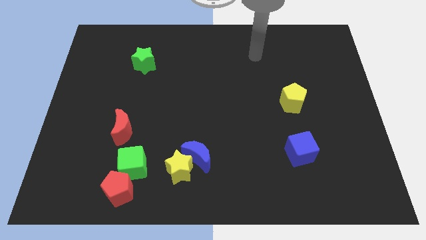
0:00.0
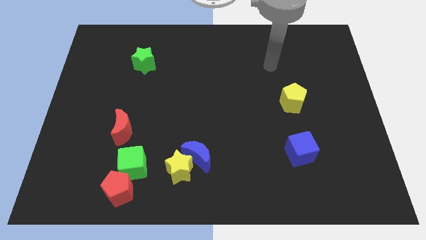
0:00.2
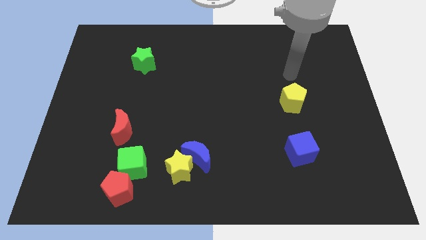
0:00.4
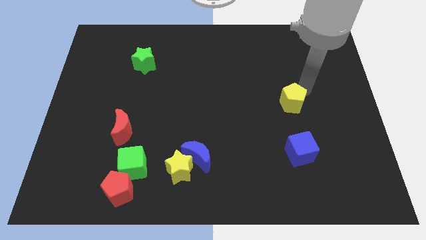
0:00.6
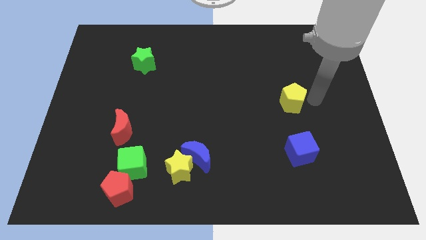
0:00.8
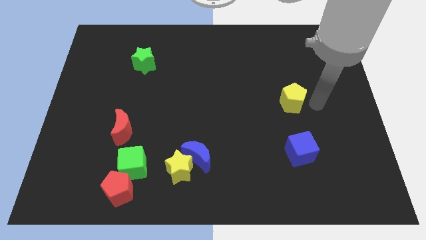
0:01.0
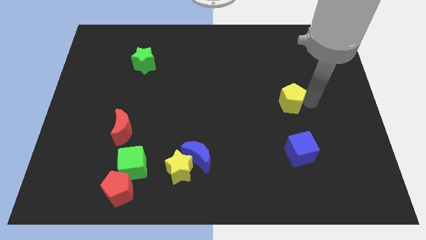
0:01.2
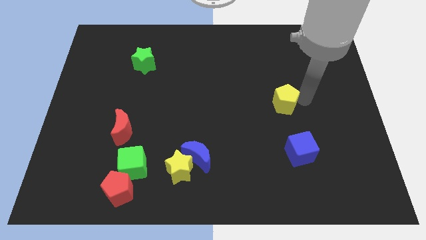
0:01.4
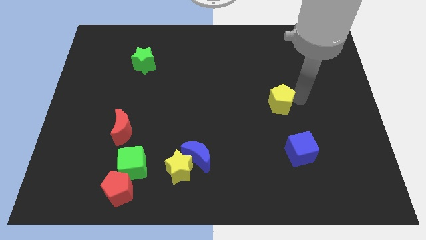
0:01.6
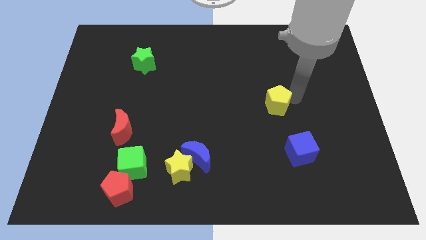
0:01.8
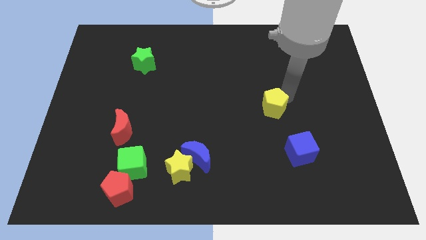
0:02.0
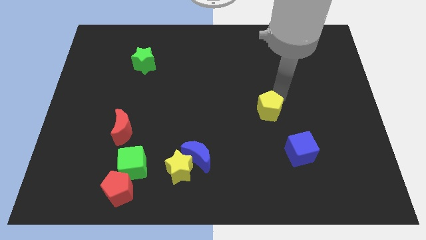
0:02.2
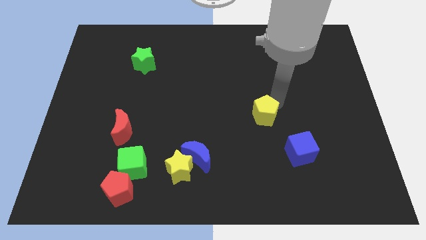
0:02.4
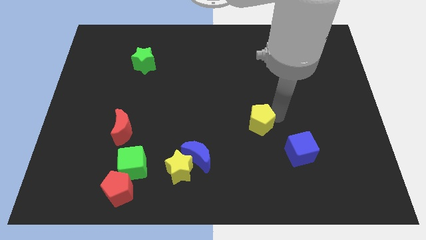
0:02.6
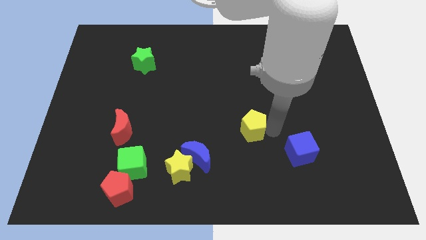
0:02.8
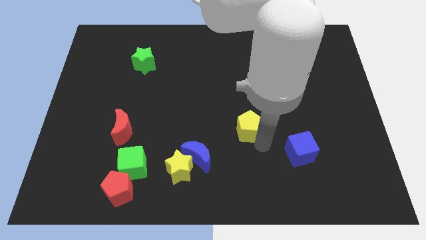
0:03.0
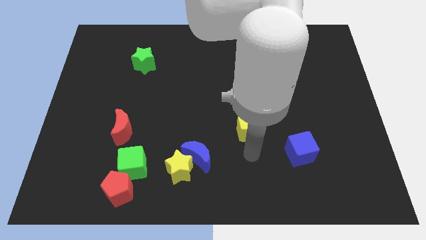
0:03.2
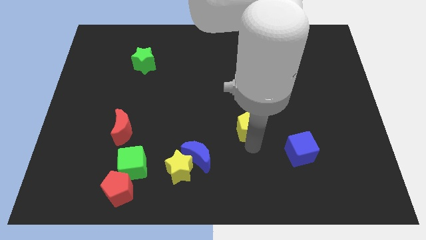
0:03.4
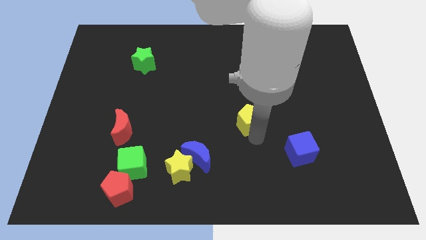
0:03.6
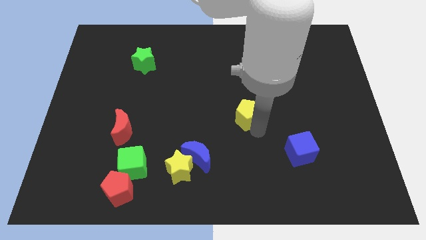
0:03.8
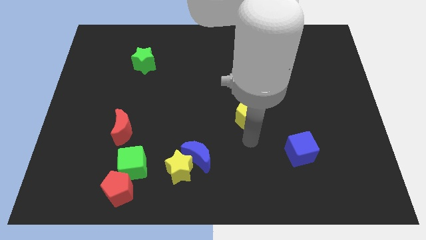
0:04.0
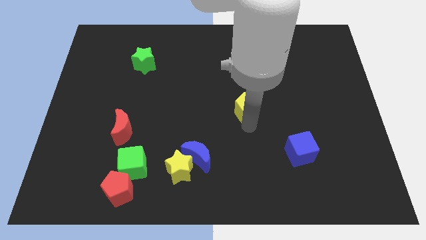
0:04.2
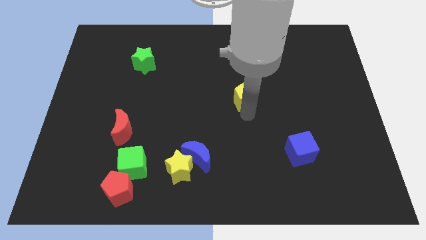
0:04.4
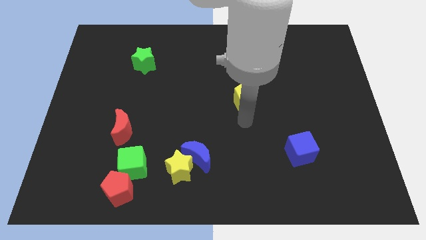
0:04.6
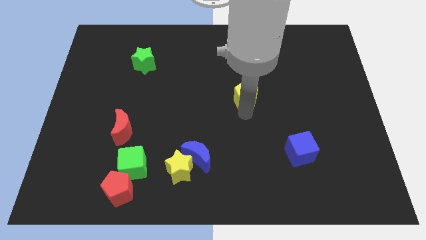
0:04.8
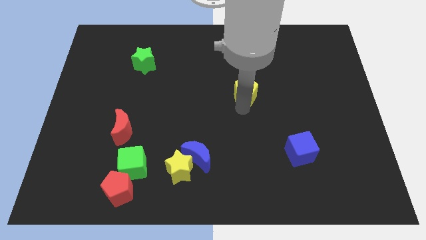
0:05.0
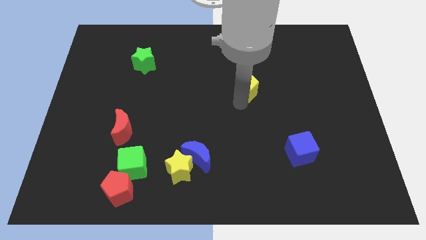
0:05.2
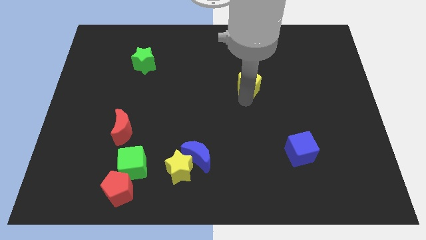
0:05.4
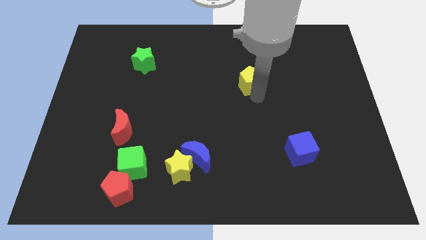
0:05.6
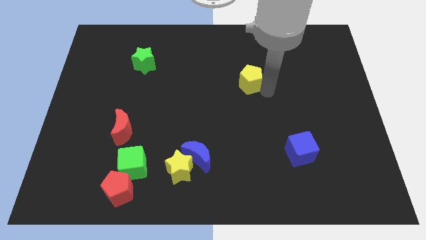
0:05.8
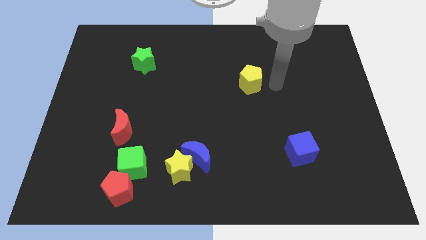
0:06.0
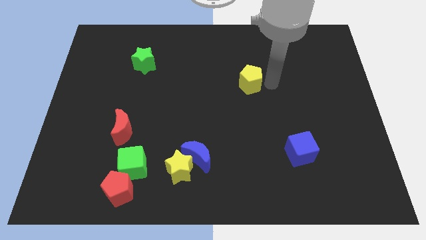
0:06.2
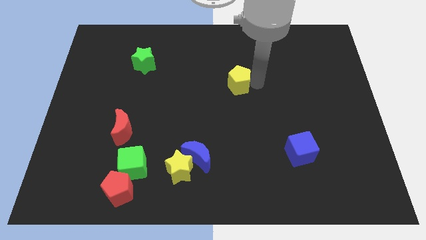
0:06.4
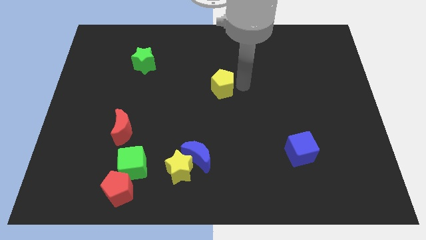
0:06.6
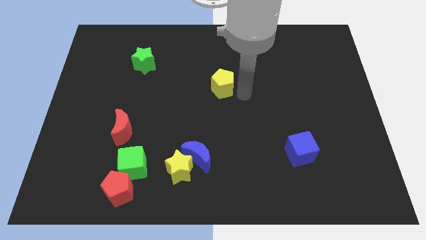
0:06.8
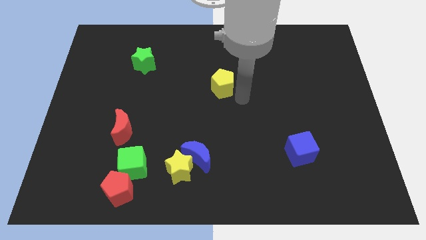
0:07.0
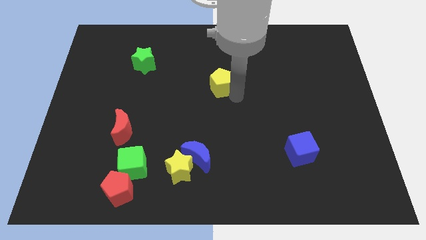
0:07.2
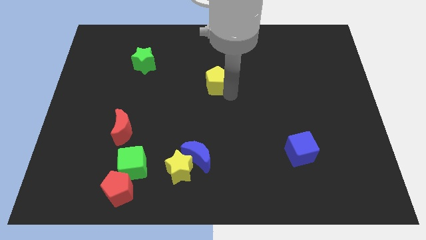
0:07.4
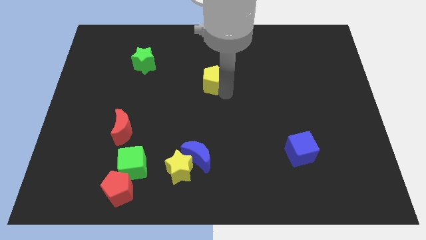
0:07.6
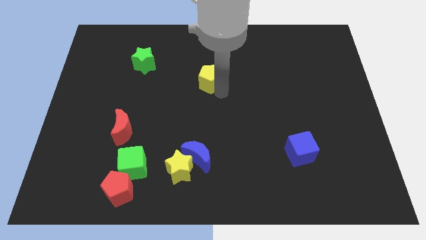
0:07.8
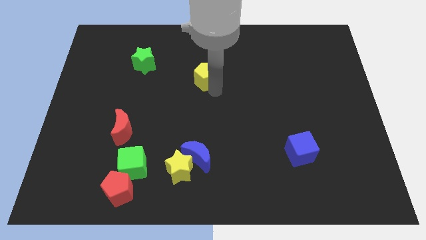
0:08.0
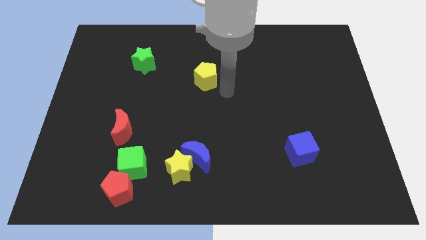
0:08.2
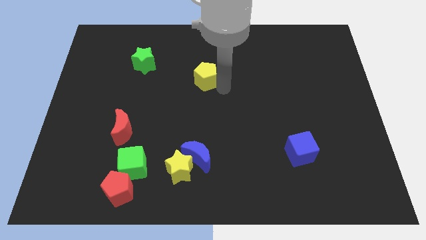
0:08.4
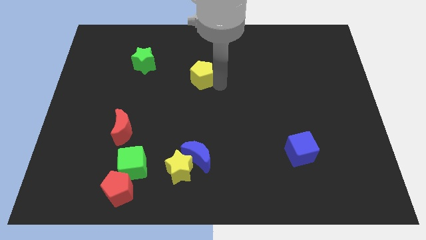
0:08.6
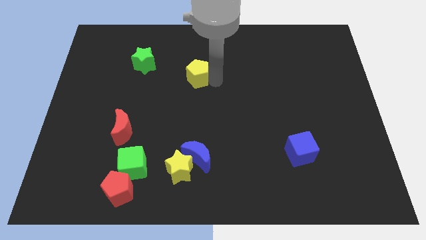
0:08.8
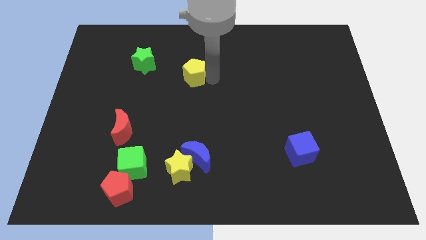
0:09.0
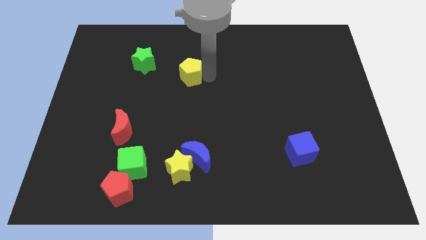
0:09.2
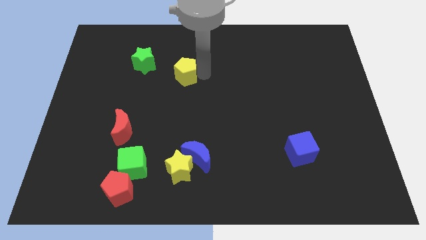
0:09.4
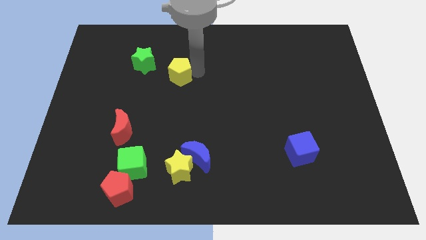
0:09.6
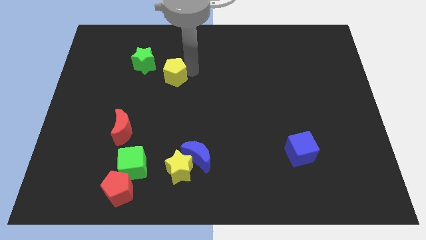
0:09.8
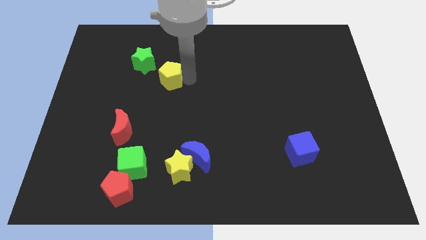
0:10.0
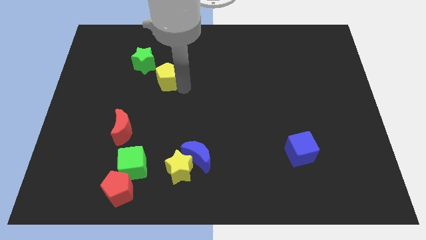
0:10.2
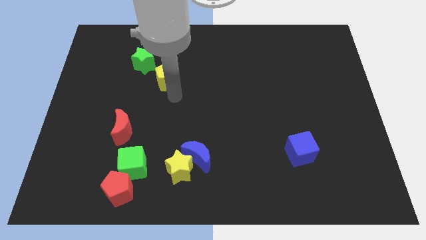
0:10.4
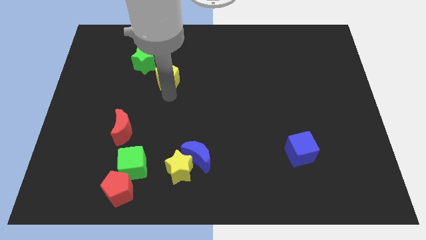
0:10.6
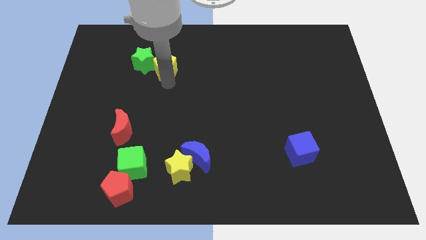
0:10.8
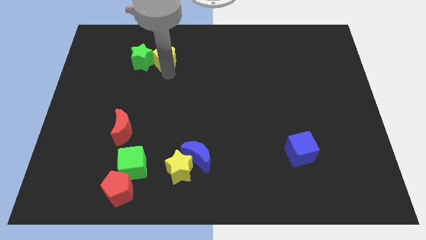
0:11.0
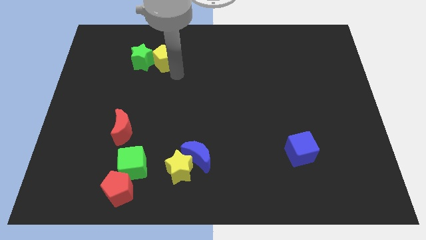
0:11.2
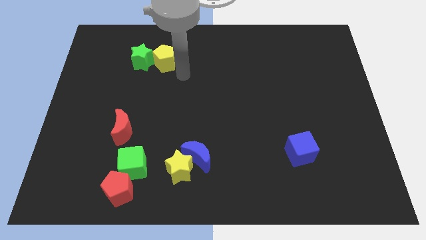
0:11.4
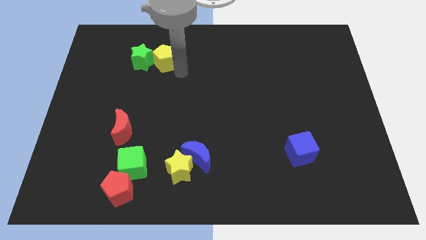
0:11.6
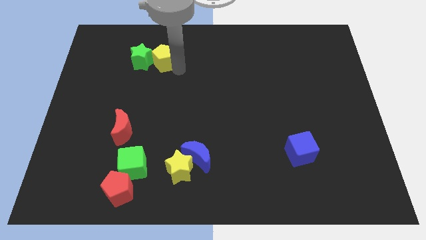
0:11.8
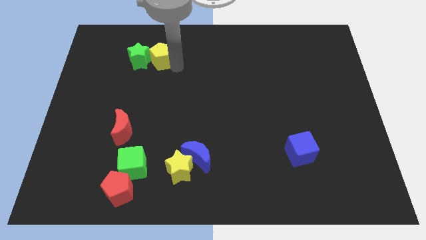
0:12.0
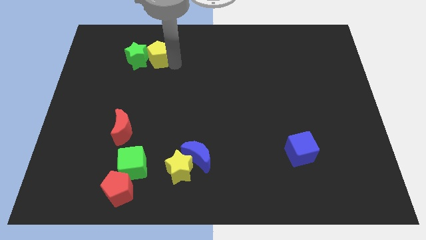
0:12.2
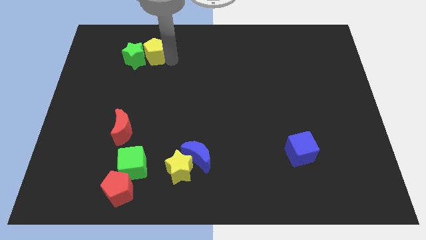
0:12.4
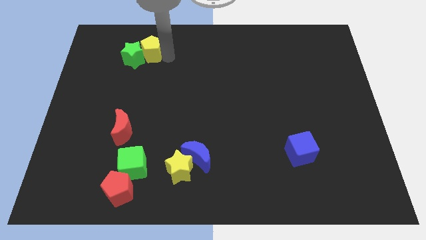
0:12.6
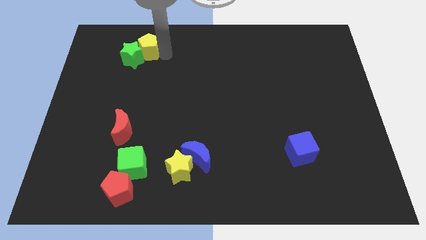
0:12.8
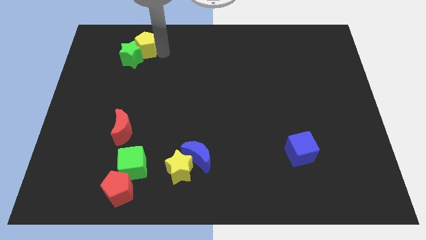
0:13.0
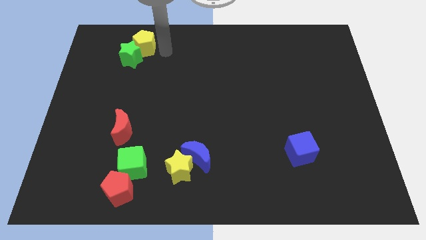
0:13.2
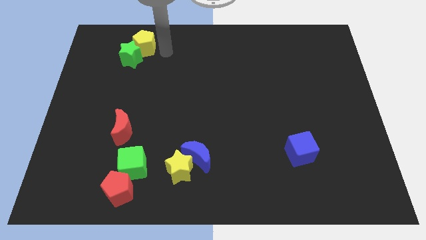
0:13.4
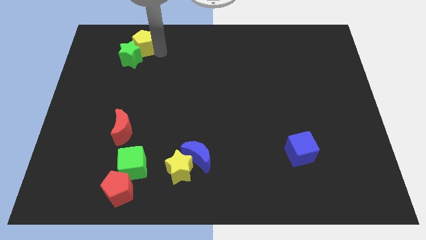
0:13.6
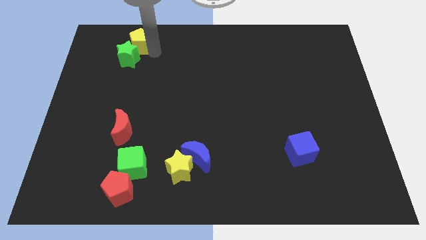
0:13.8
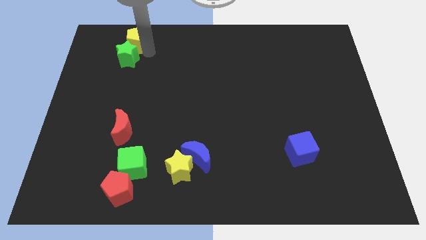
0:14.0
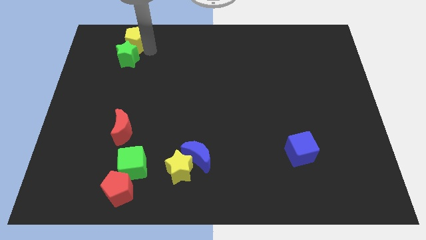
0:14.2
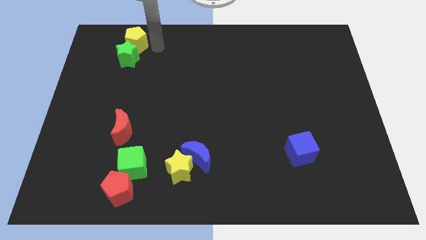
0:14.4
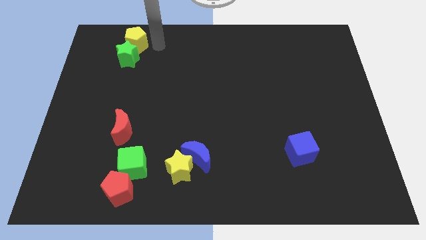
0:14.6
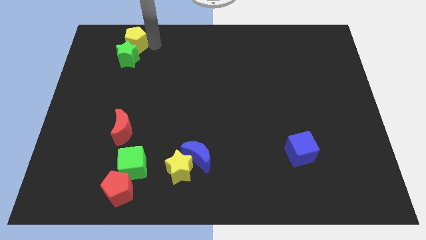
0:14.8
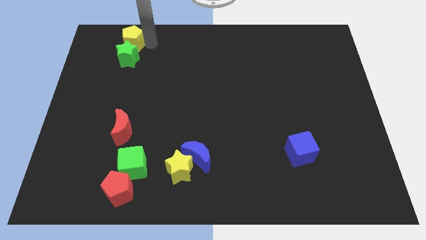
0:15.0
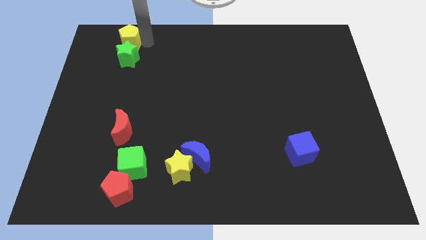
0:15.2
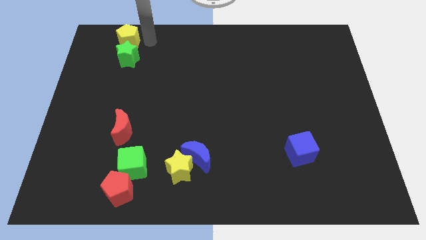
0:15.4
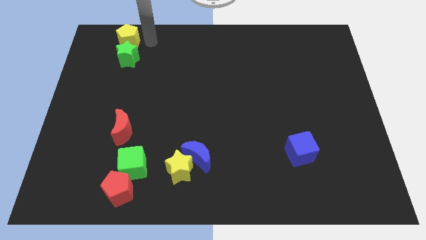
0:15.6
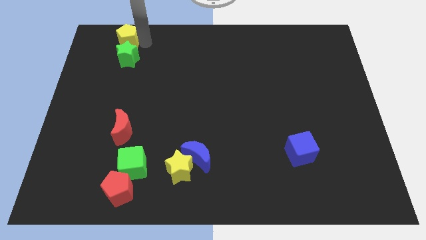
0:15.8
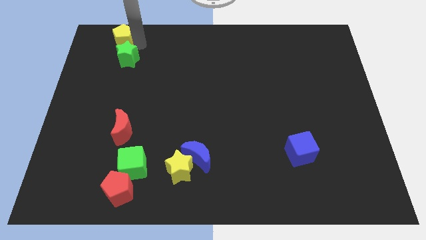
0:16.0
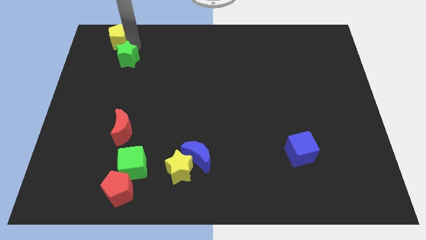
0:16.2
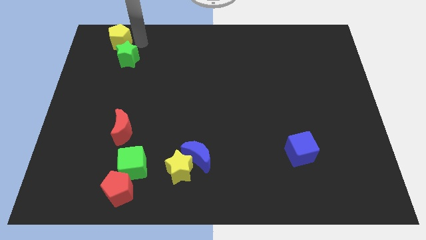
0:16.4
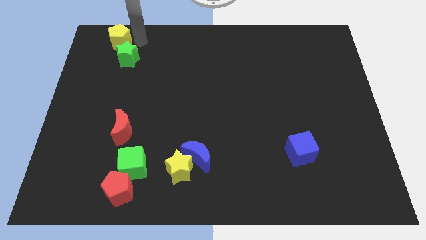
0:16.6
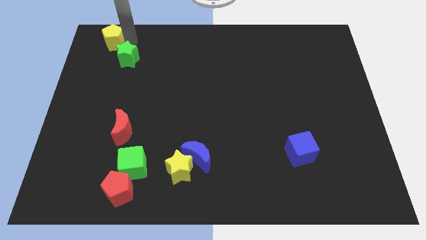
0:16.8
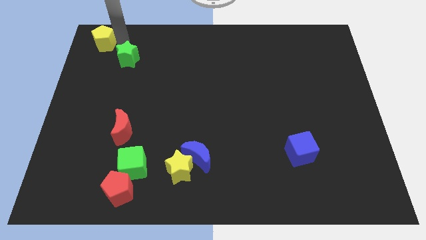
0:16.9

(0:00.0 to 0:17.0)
put the yellow pentagon to the upper left corner
